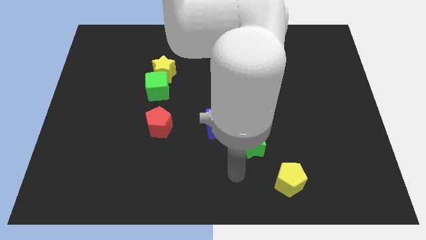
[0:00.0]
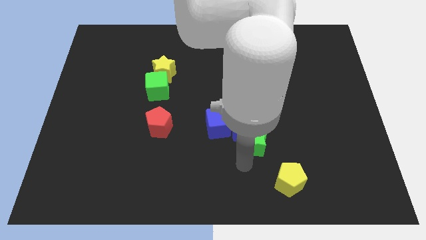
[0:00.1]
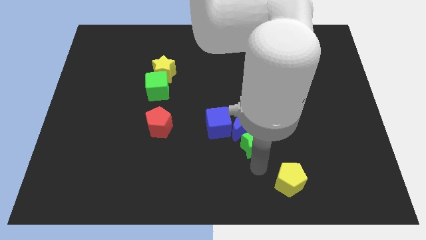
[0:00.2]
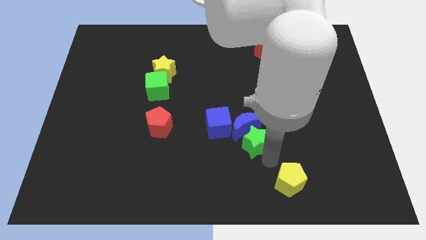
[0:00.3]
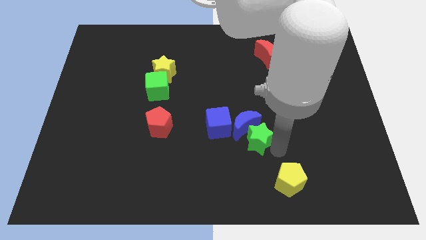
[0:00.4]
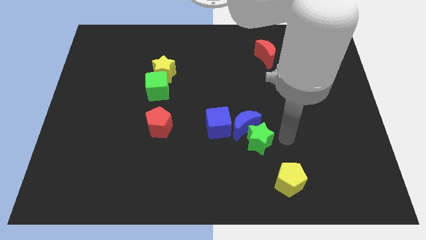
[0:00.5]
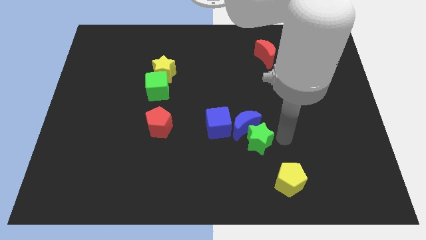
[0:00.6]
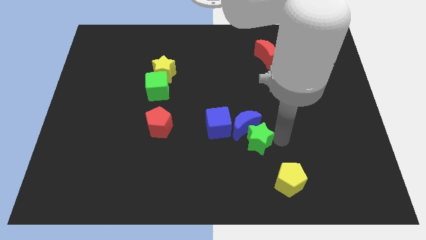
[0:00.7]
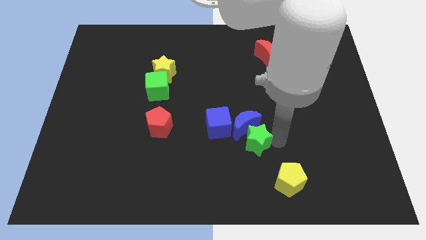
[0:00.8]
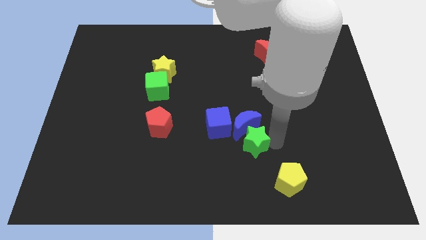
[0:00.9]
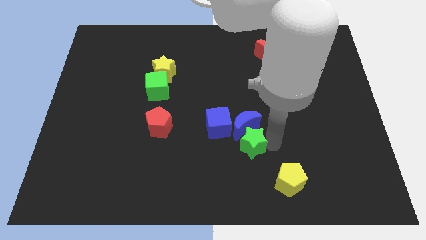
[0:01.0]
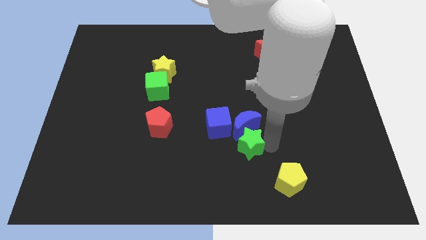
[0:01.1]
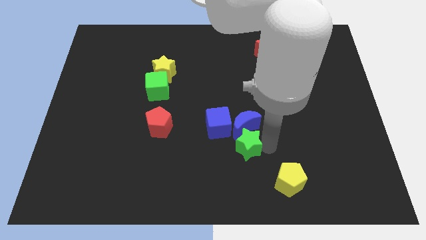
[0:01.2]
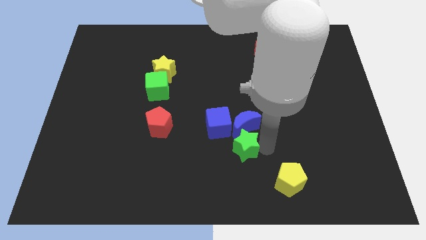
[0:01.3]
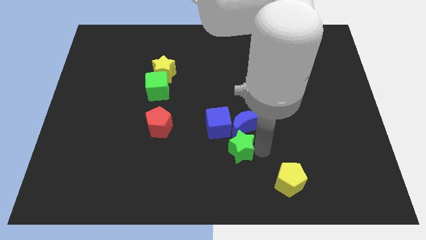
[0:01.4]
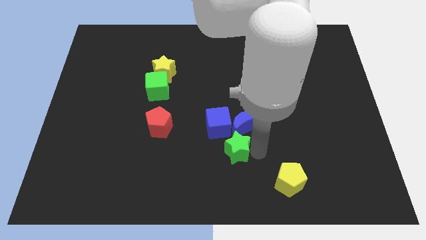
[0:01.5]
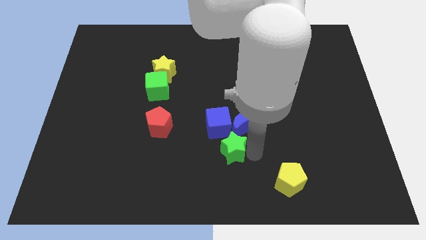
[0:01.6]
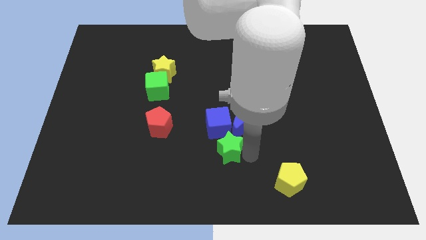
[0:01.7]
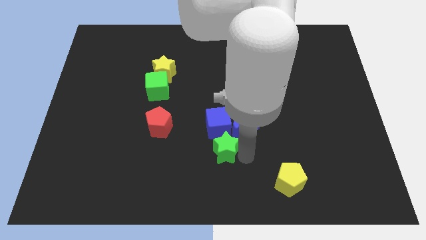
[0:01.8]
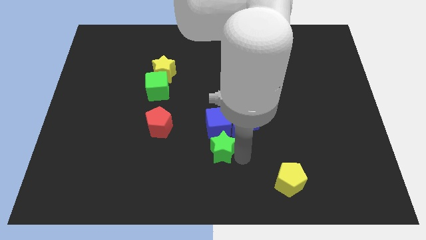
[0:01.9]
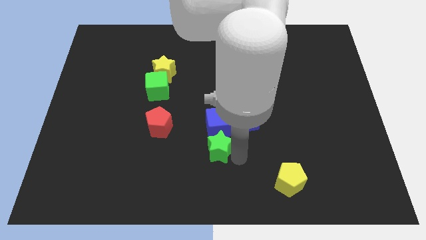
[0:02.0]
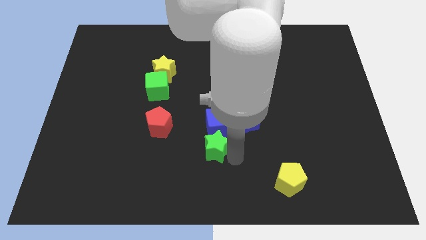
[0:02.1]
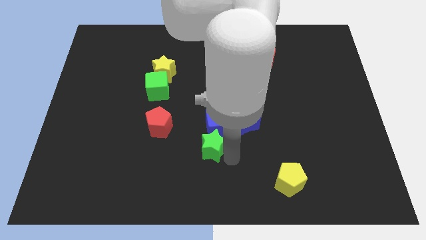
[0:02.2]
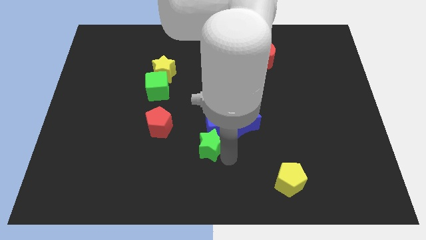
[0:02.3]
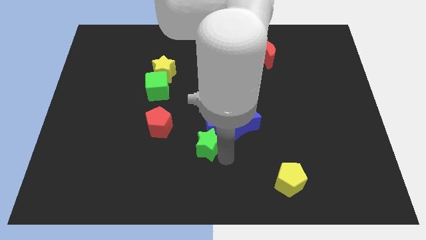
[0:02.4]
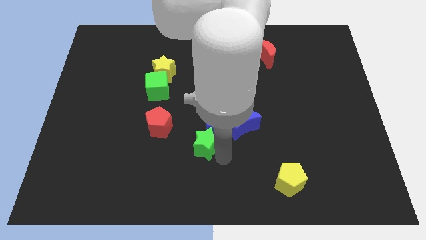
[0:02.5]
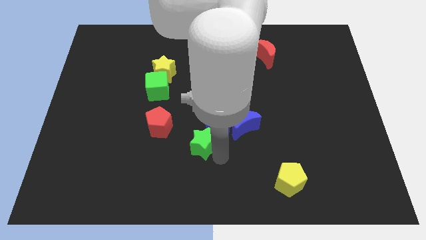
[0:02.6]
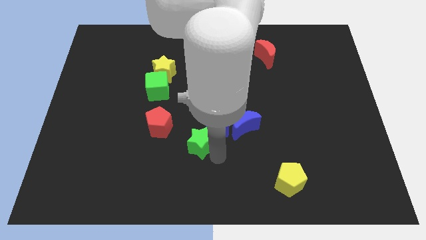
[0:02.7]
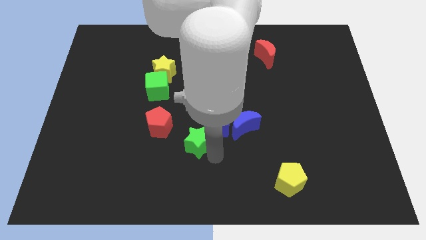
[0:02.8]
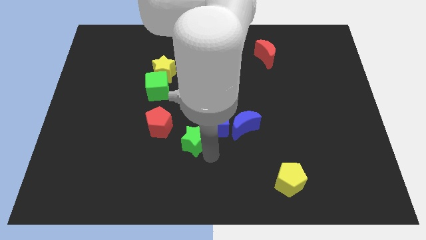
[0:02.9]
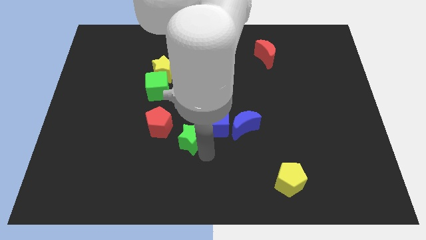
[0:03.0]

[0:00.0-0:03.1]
move the green star upwards and to the left diagonally a little

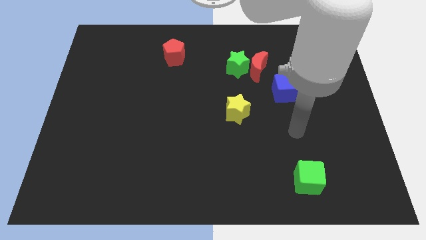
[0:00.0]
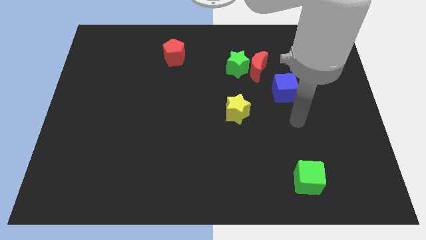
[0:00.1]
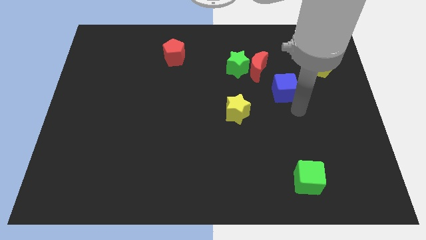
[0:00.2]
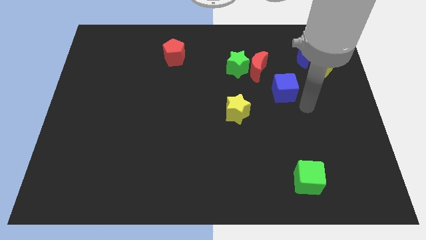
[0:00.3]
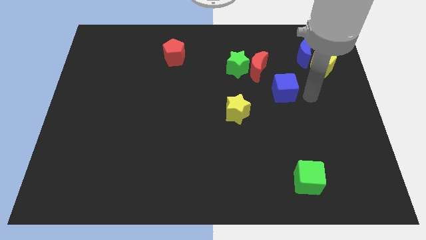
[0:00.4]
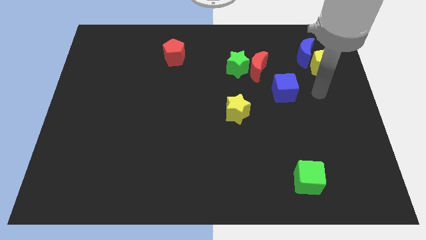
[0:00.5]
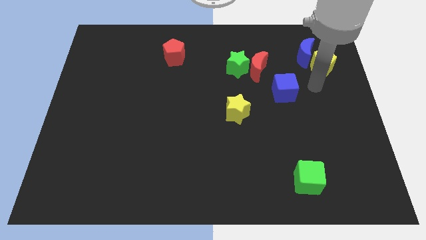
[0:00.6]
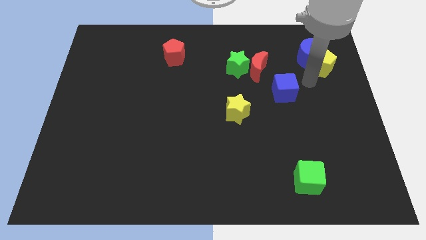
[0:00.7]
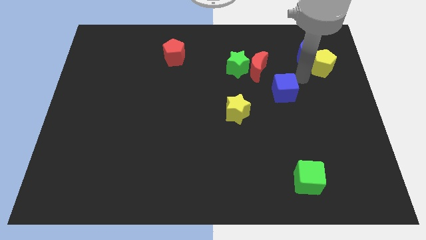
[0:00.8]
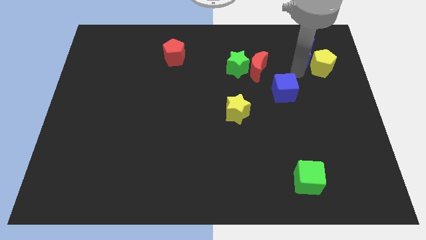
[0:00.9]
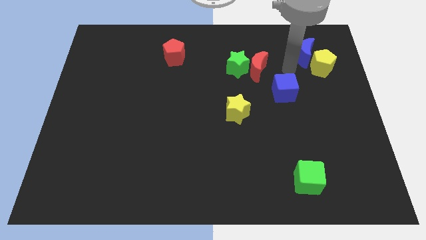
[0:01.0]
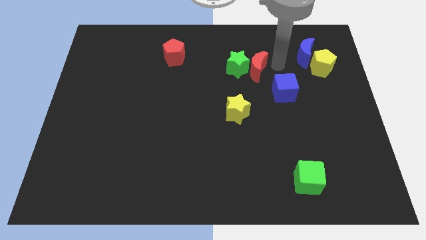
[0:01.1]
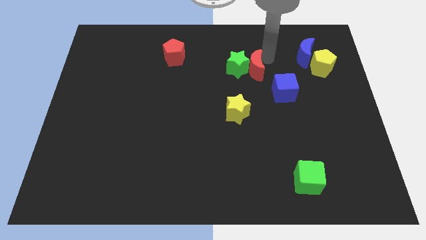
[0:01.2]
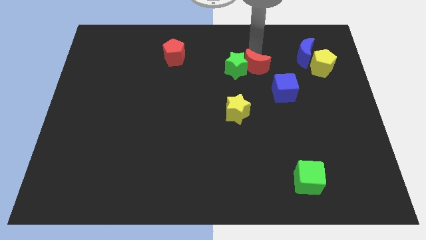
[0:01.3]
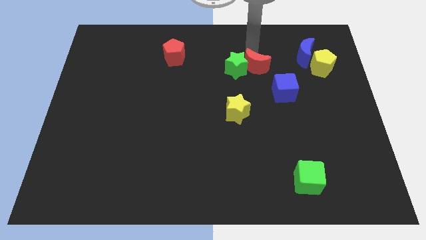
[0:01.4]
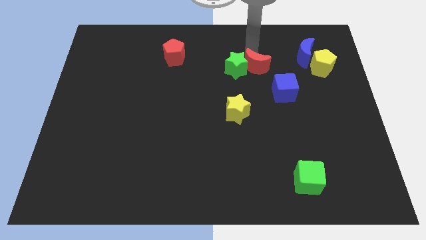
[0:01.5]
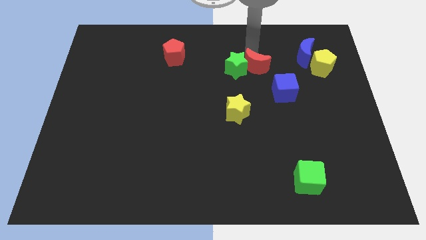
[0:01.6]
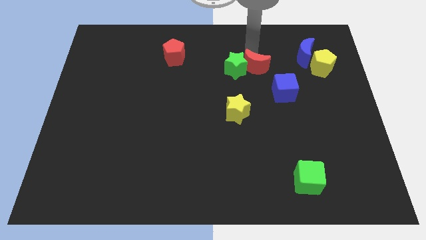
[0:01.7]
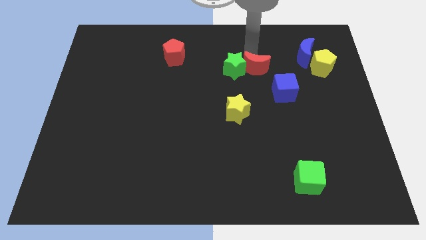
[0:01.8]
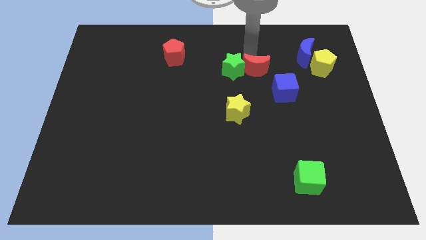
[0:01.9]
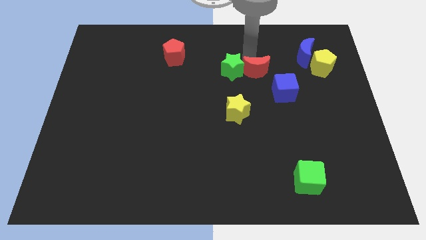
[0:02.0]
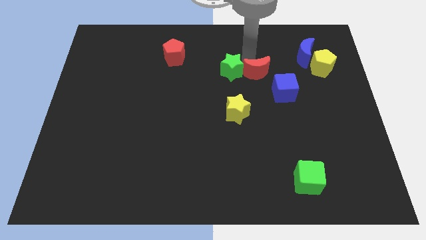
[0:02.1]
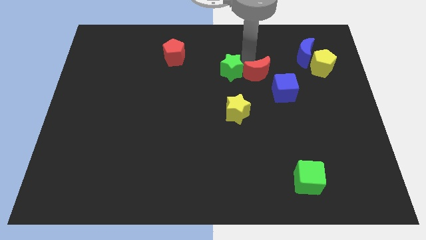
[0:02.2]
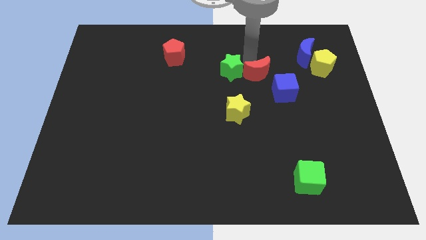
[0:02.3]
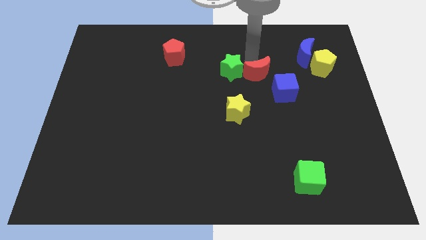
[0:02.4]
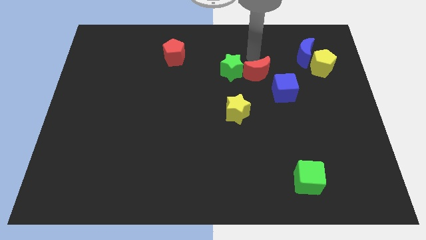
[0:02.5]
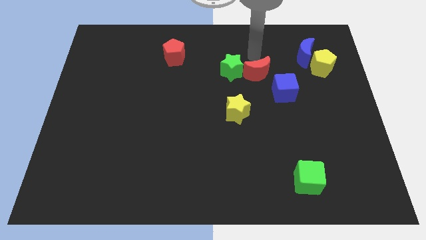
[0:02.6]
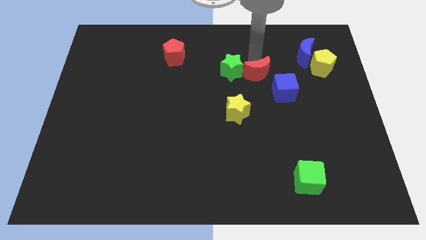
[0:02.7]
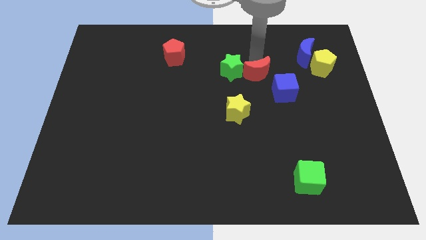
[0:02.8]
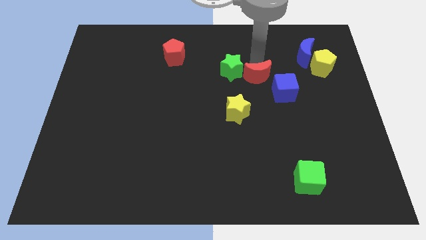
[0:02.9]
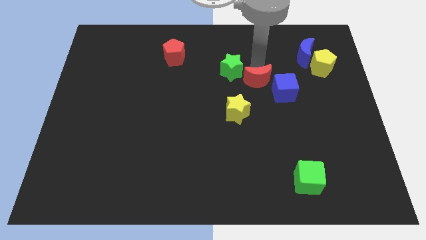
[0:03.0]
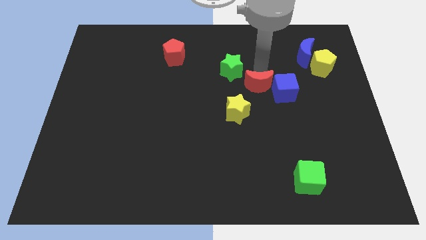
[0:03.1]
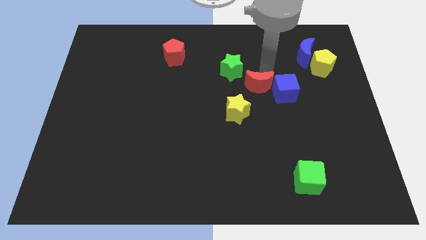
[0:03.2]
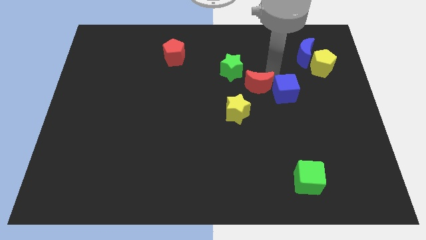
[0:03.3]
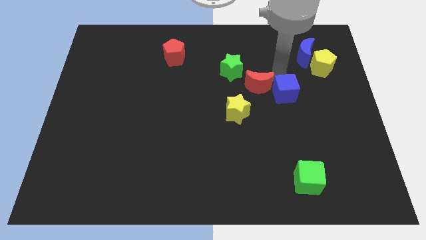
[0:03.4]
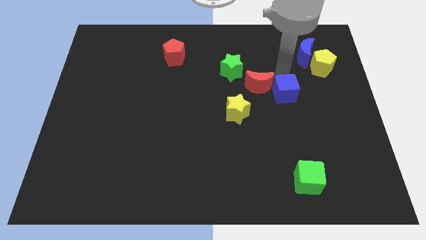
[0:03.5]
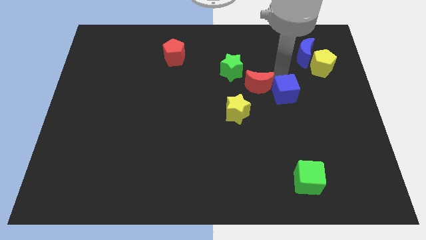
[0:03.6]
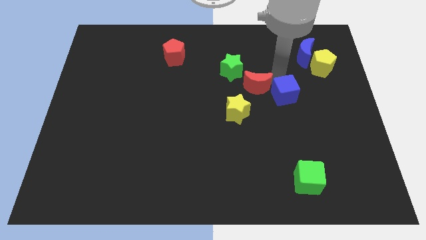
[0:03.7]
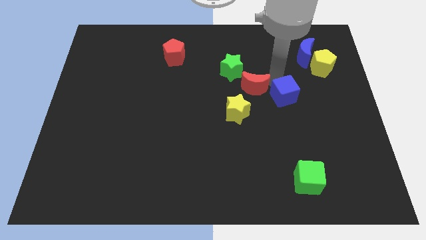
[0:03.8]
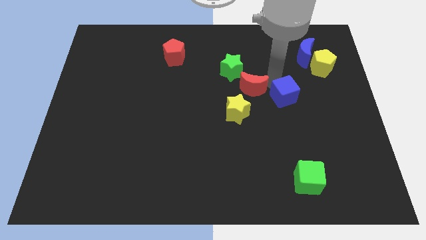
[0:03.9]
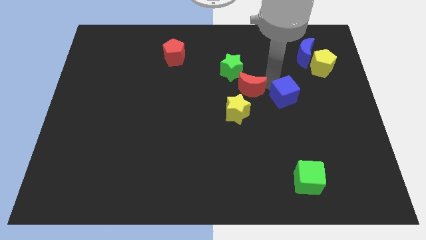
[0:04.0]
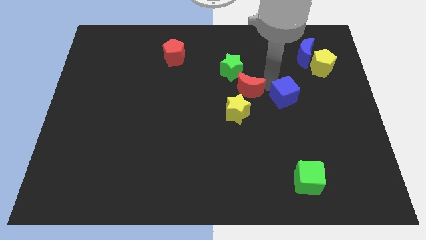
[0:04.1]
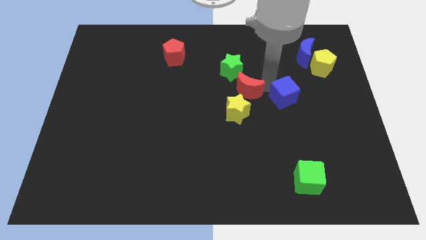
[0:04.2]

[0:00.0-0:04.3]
slightly move the red moon downwards and left diagonally

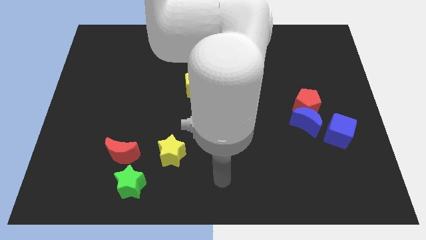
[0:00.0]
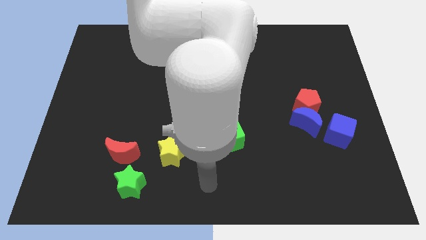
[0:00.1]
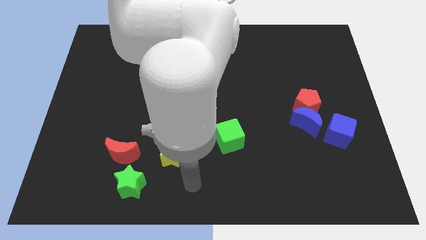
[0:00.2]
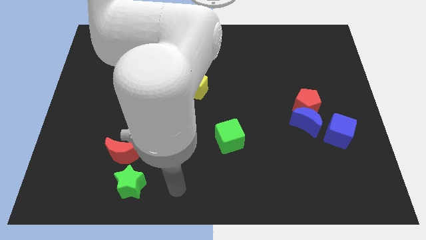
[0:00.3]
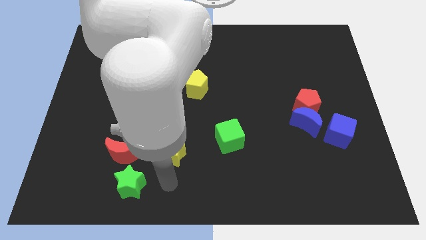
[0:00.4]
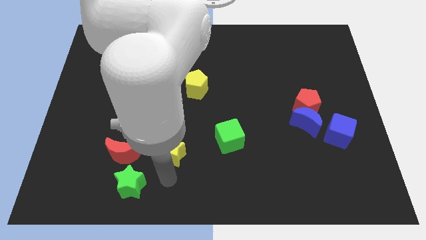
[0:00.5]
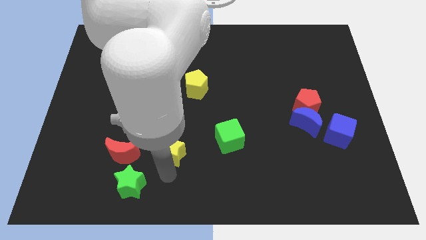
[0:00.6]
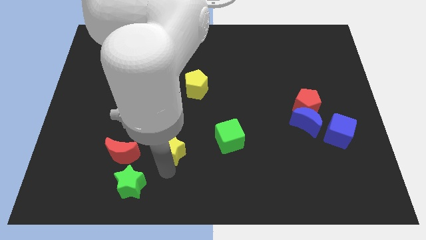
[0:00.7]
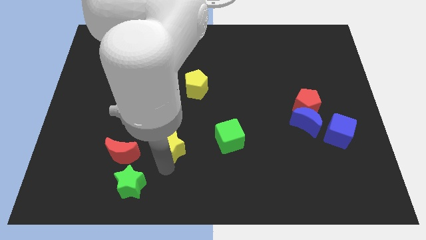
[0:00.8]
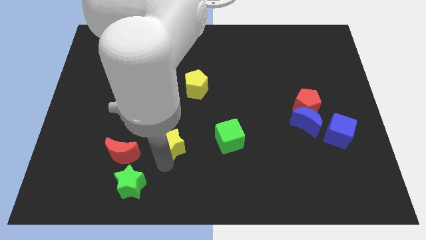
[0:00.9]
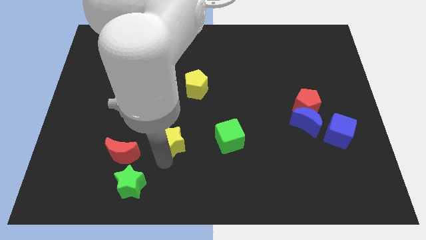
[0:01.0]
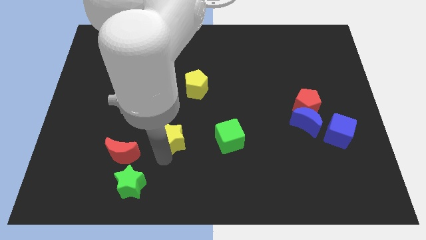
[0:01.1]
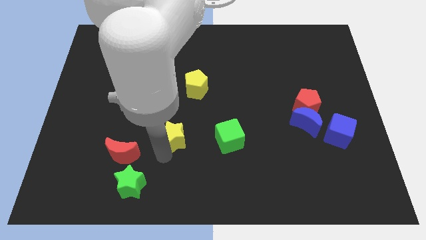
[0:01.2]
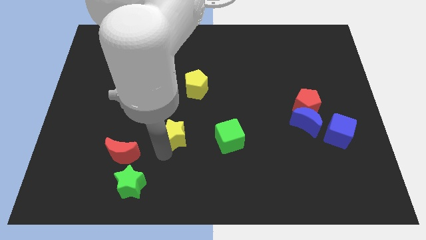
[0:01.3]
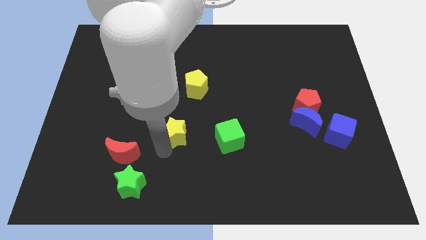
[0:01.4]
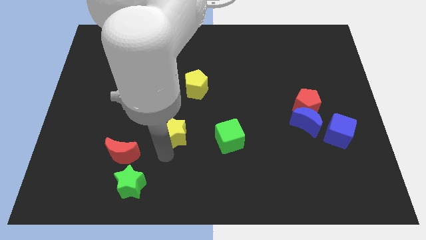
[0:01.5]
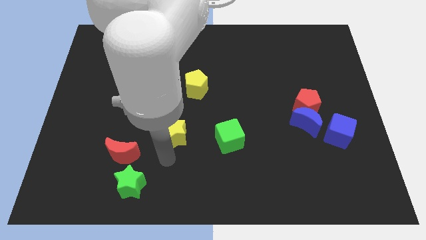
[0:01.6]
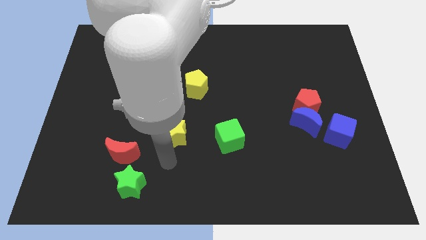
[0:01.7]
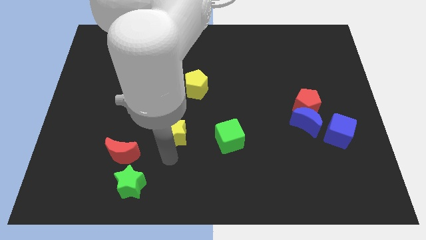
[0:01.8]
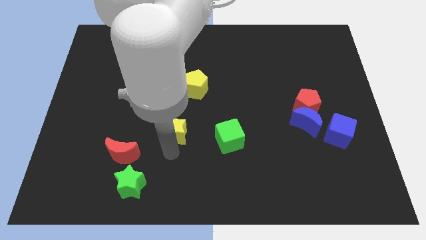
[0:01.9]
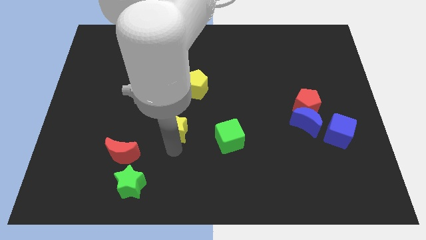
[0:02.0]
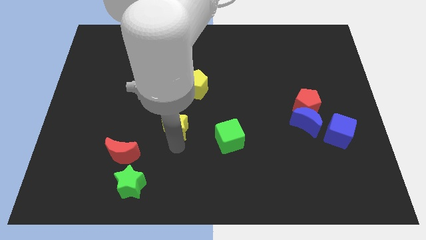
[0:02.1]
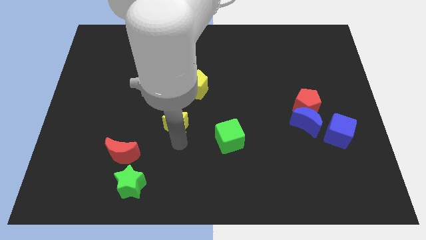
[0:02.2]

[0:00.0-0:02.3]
move the yellow star upwards a bit
